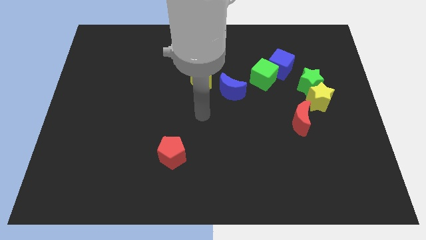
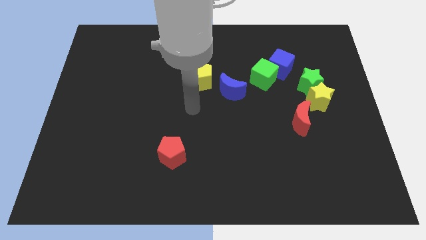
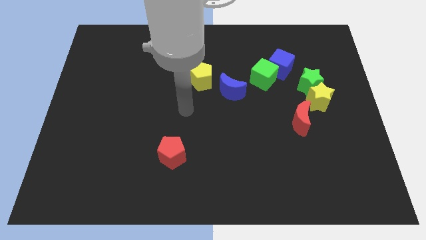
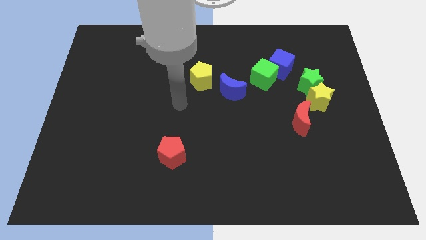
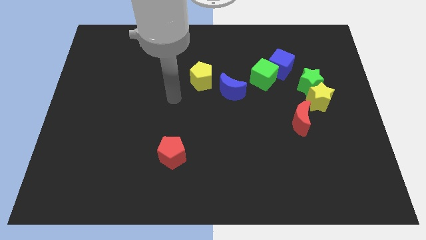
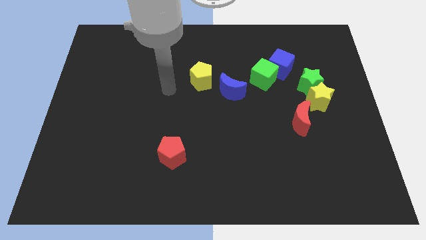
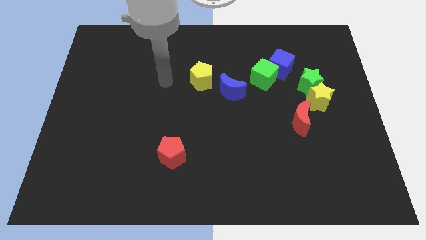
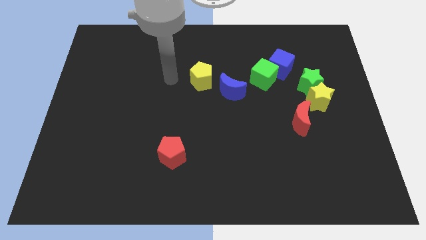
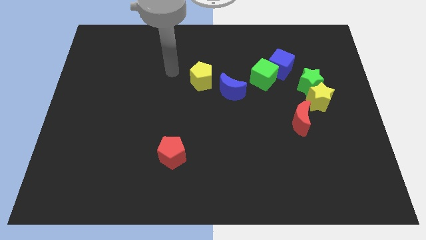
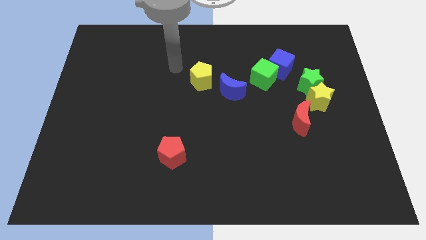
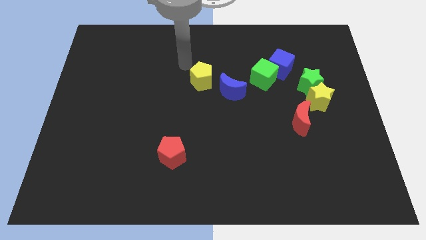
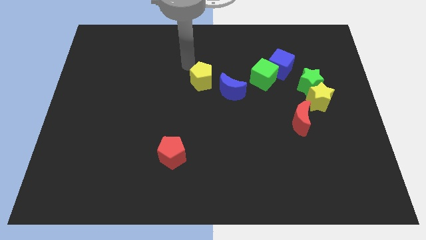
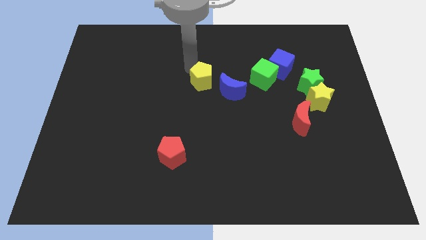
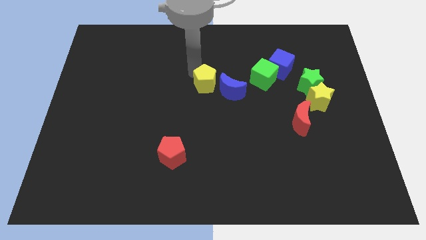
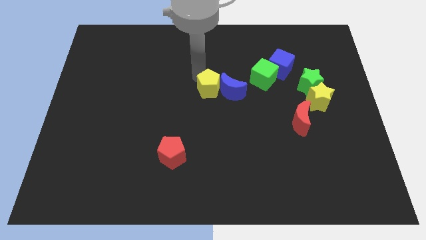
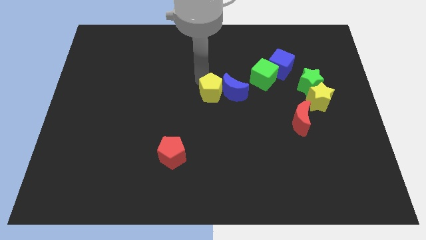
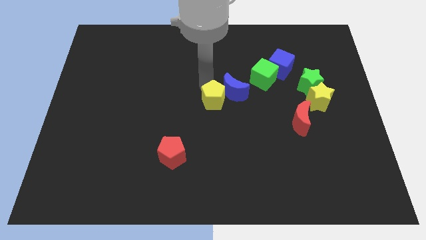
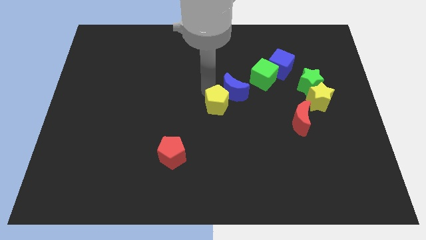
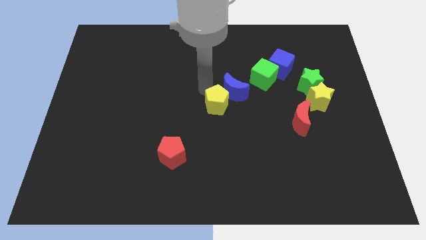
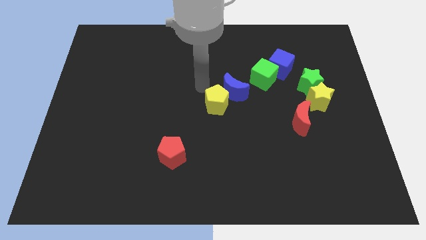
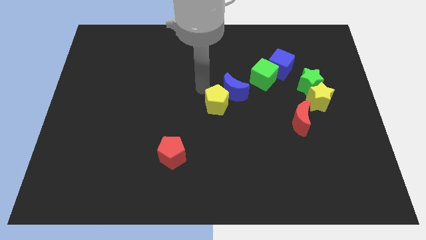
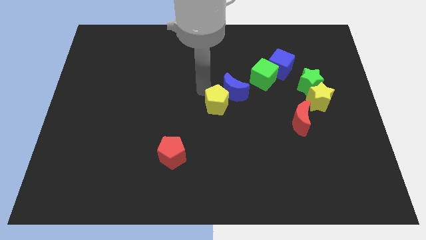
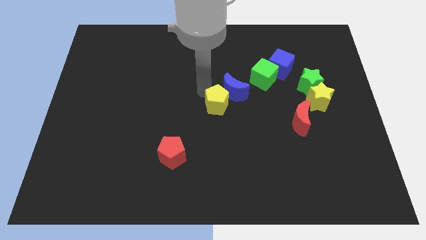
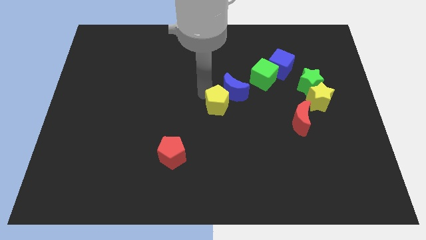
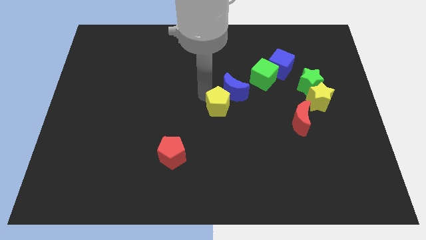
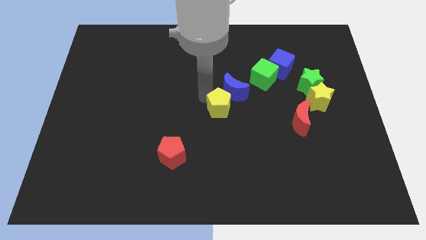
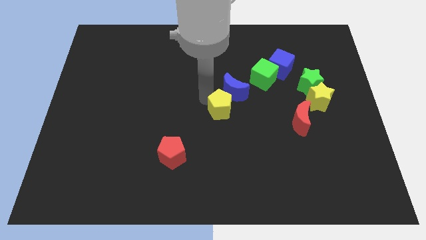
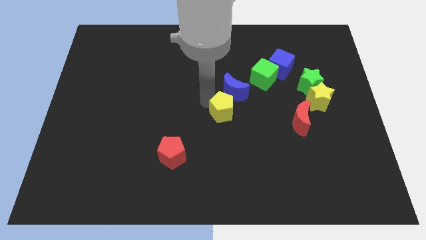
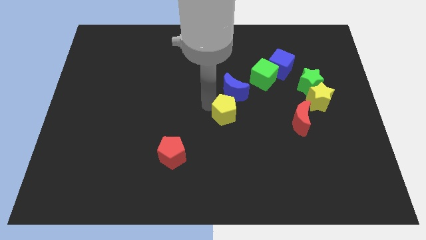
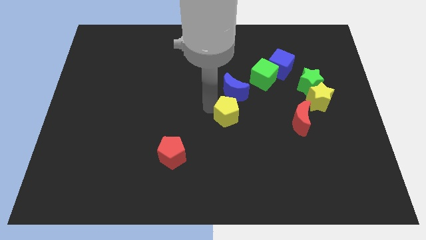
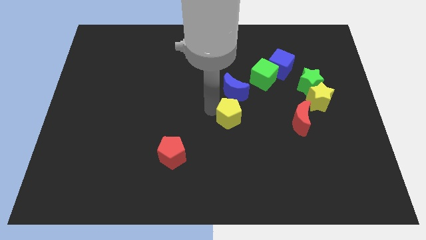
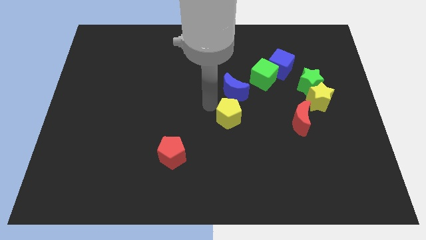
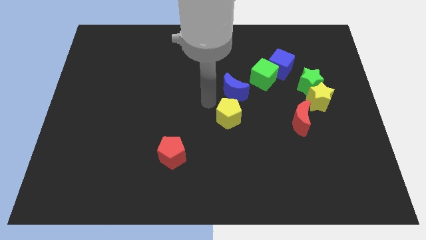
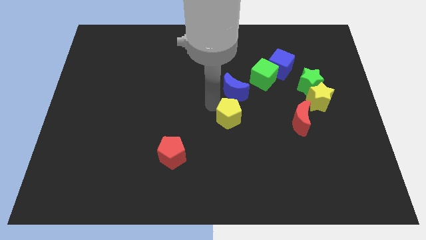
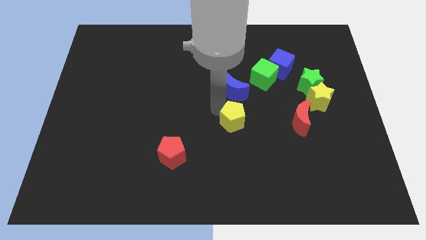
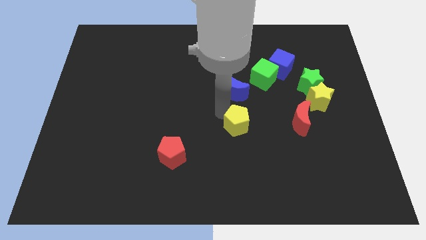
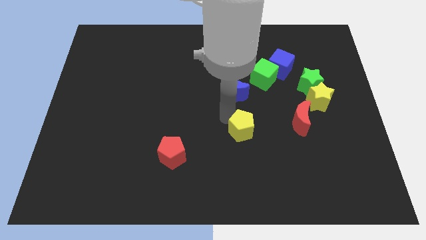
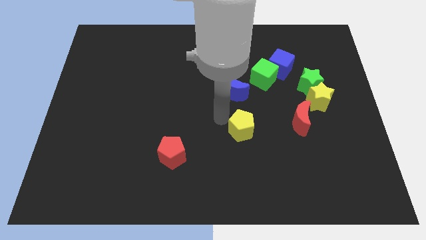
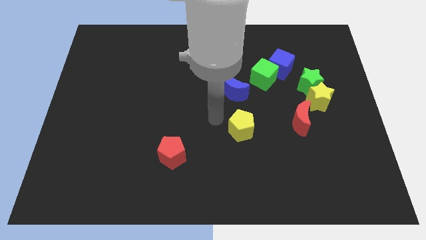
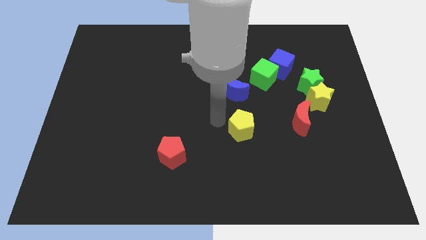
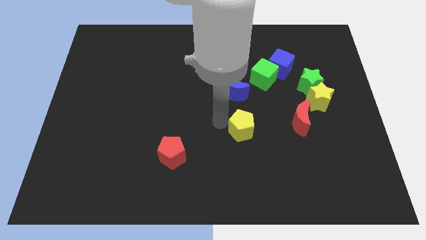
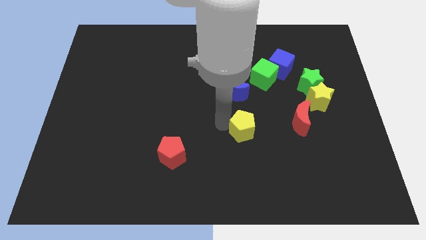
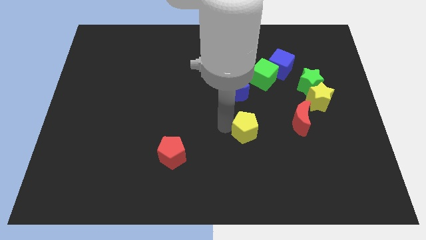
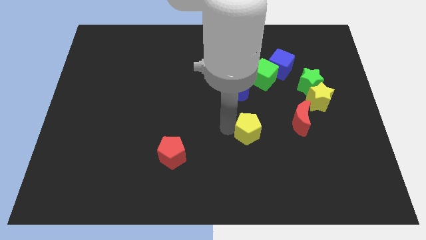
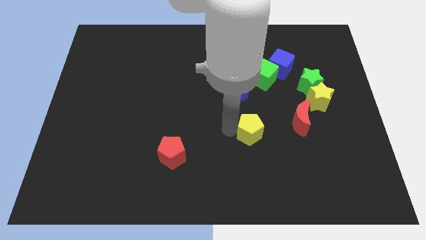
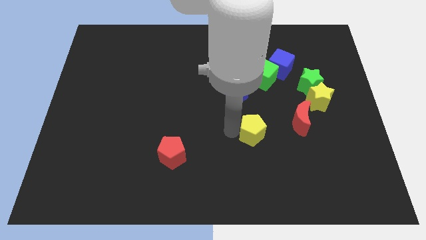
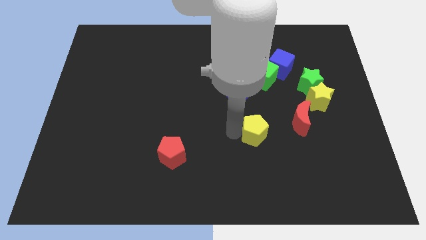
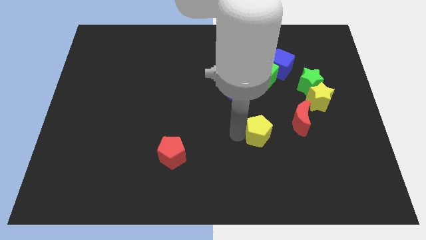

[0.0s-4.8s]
push the yellow pentagon downwards and right diagonally

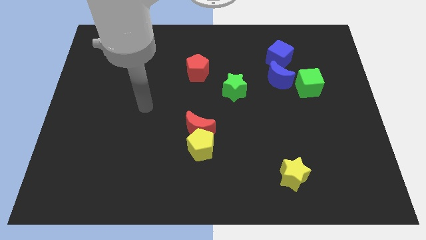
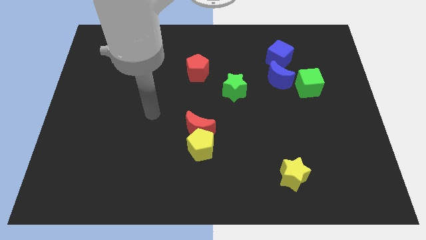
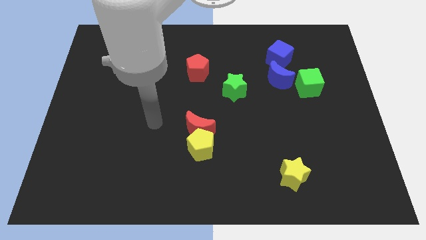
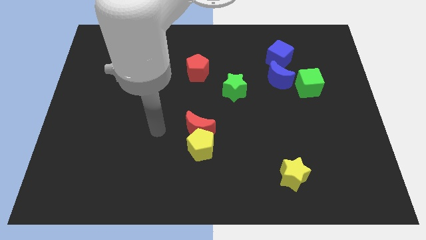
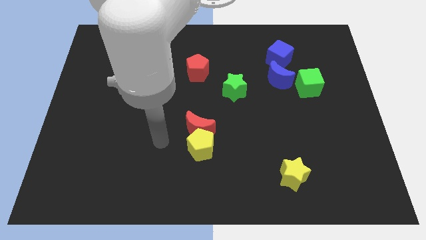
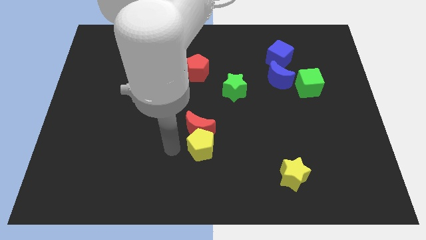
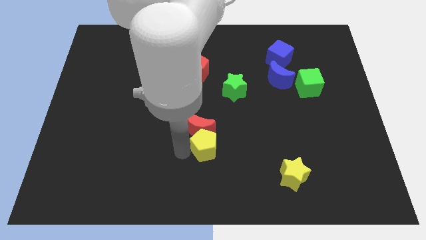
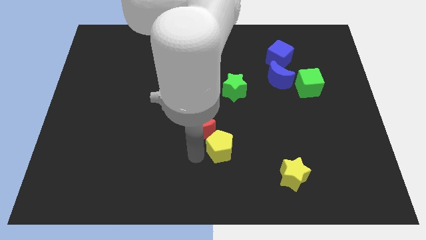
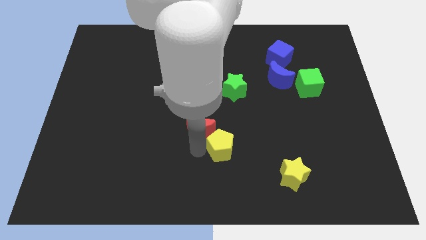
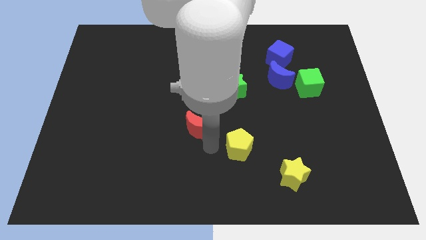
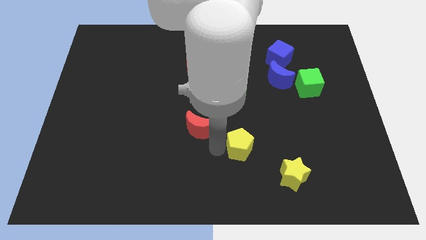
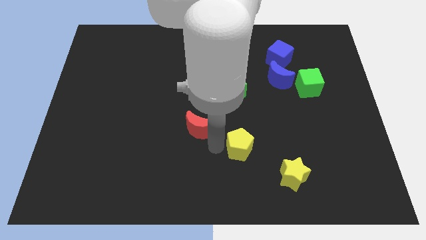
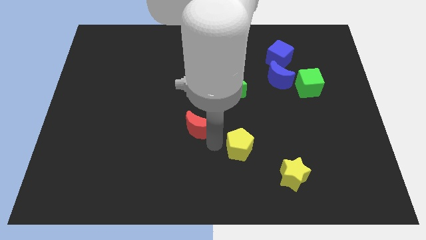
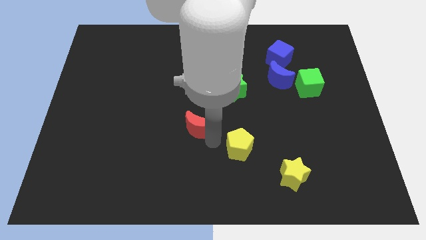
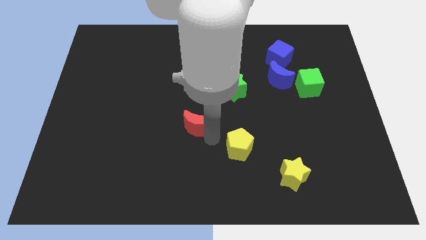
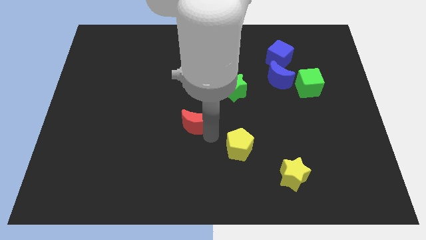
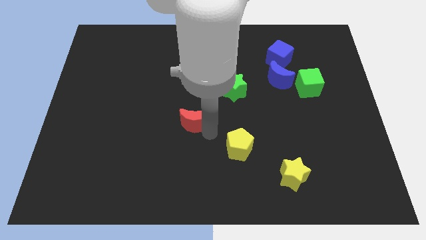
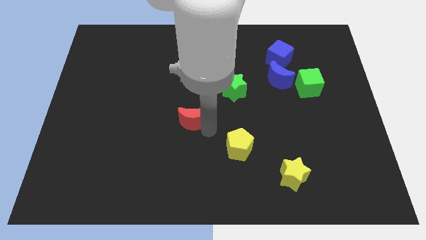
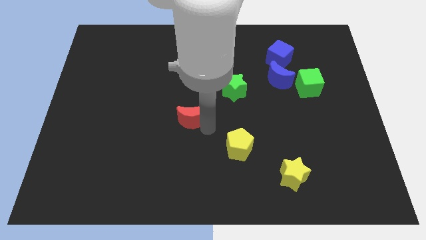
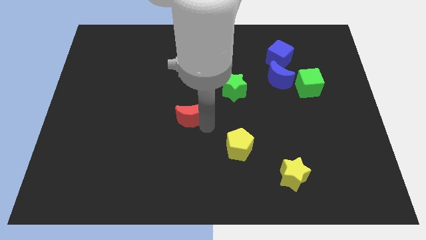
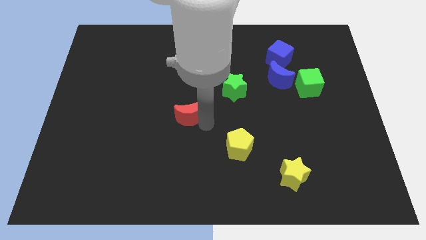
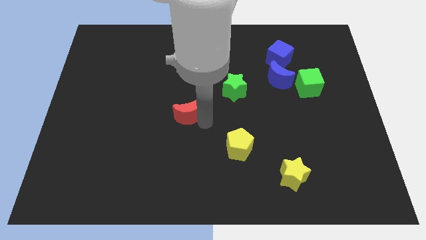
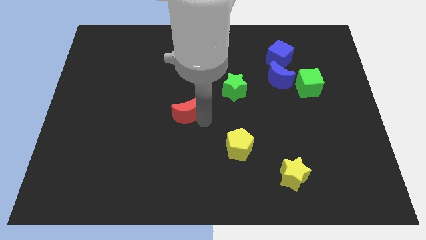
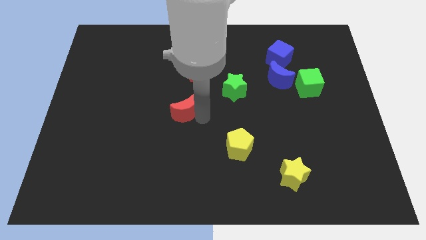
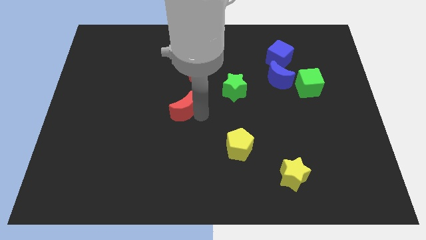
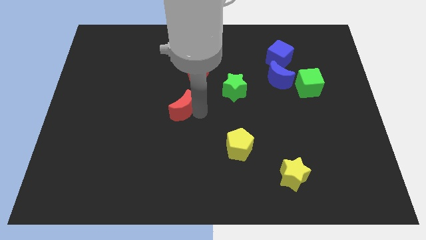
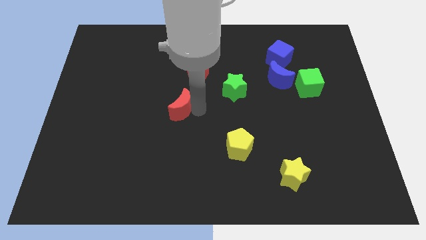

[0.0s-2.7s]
move the red moon up and to the left a little

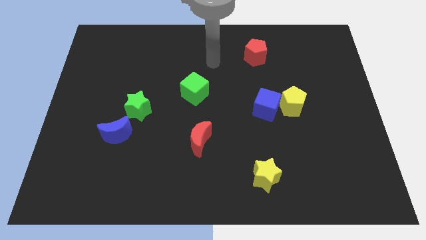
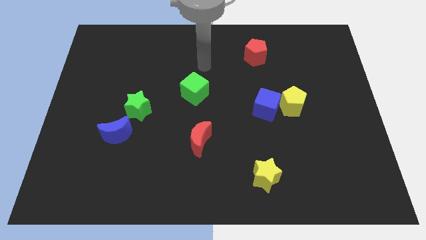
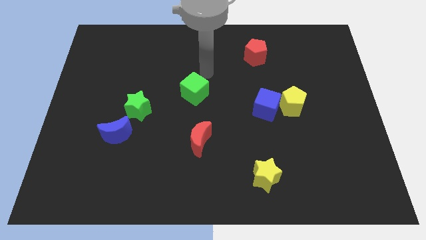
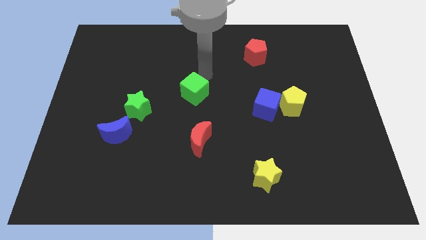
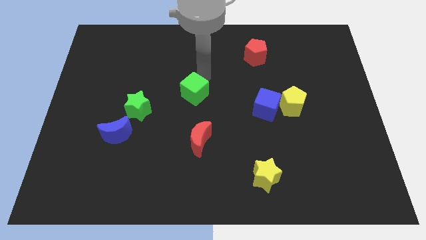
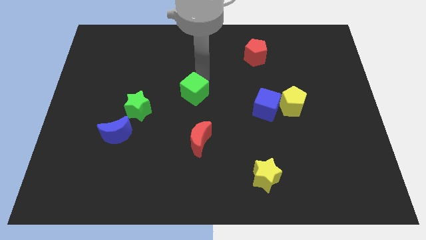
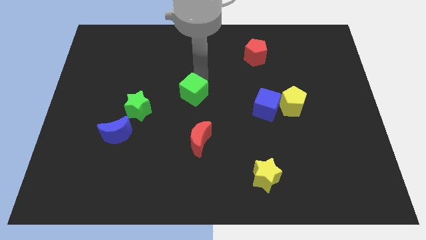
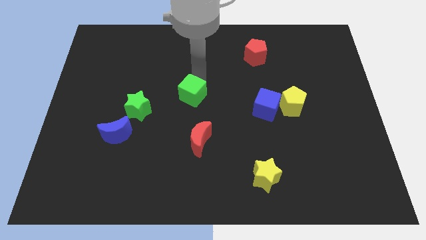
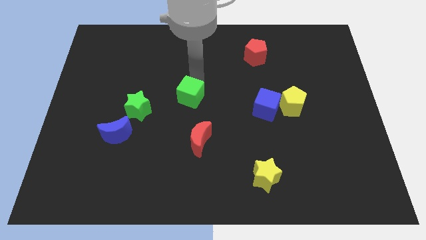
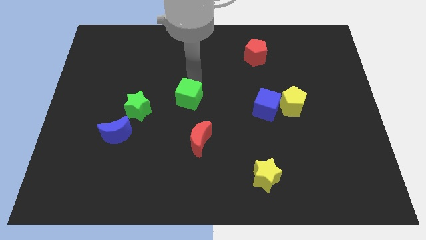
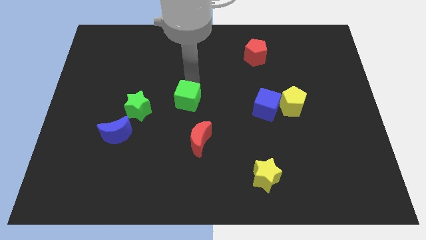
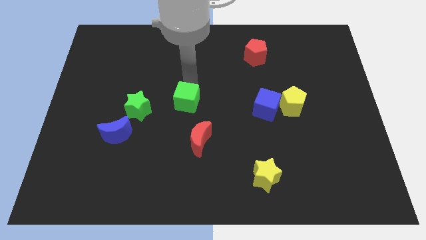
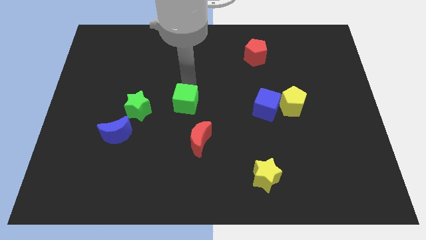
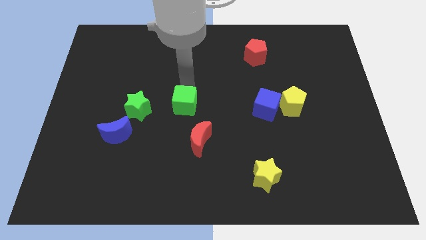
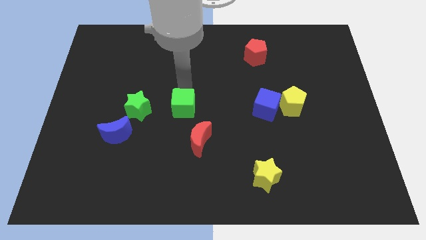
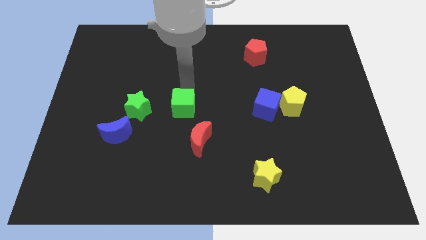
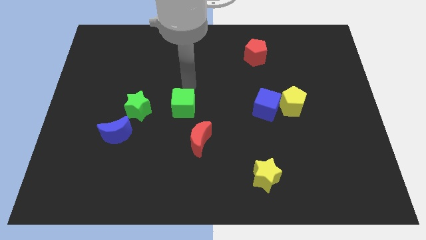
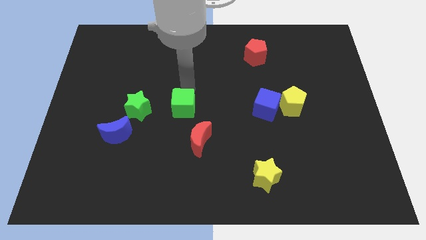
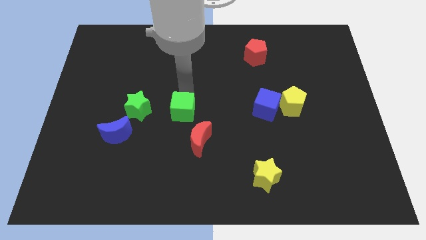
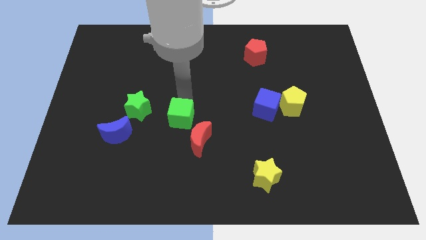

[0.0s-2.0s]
slightly push the green cube downwards
